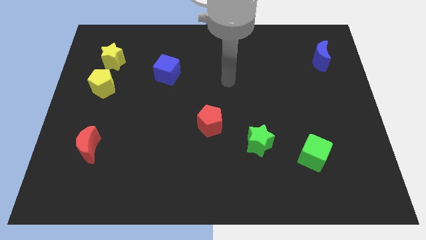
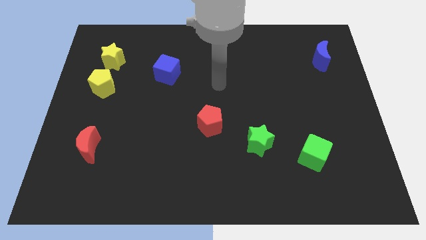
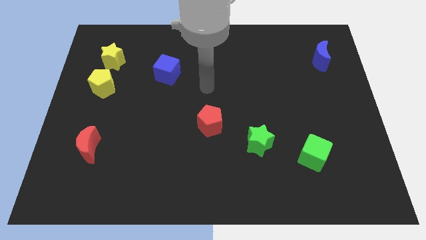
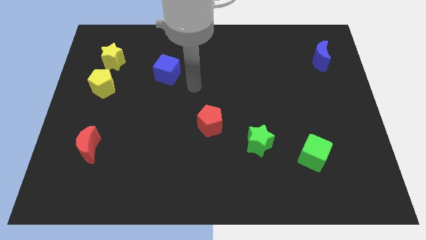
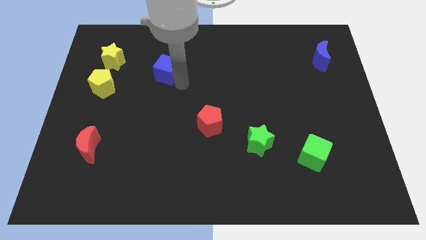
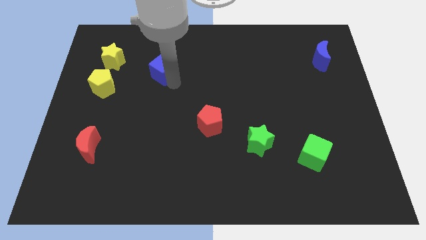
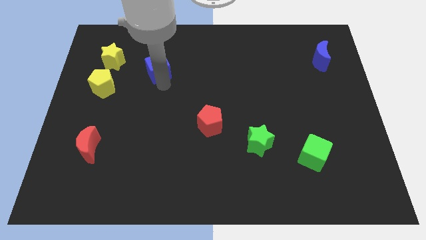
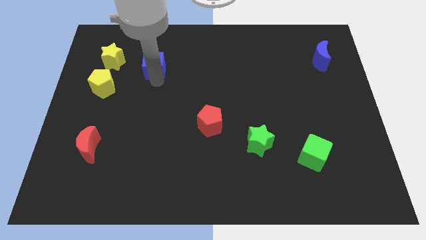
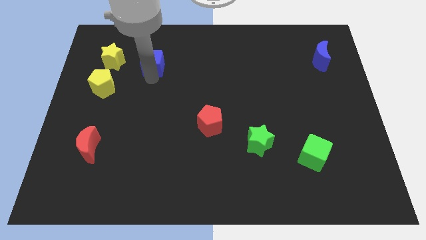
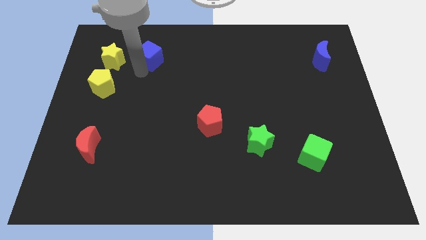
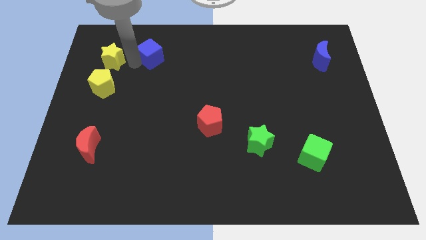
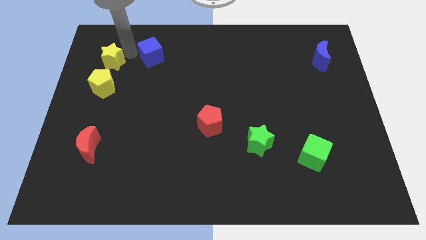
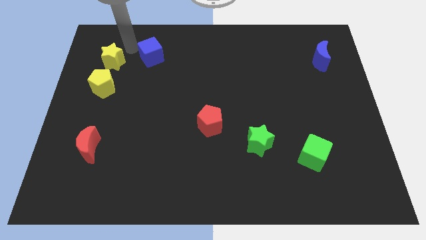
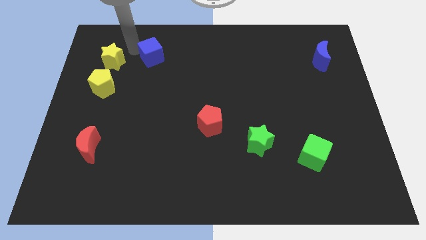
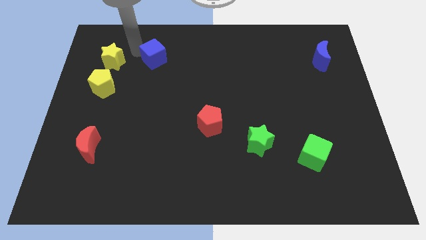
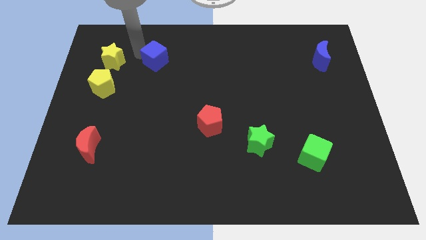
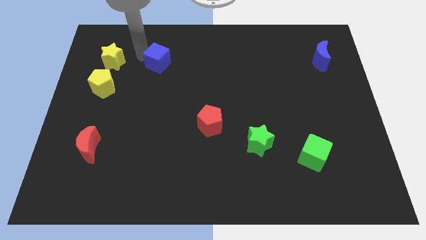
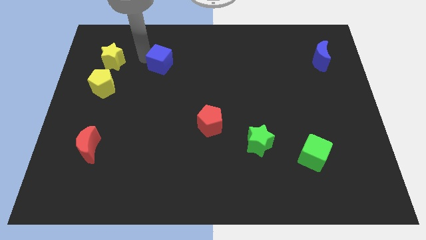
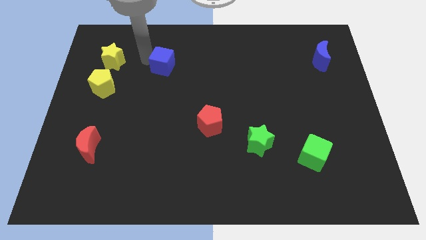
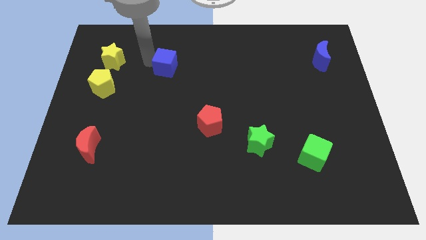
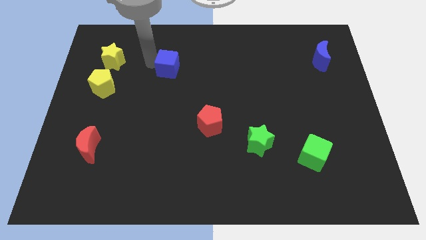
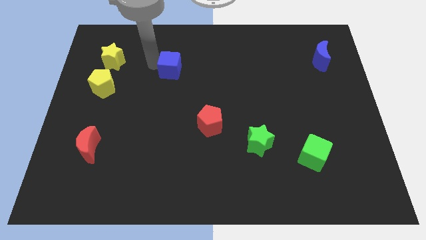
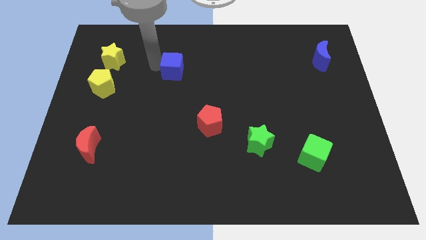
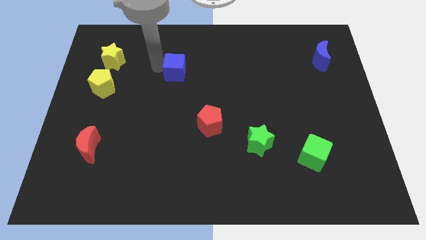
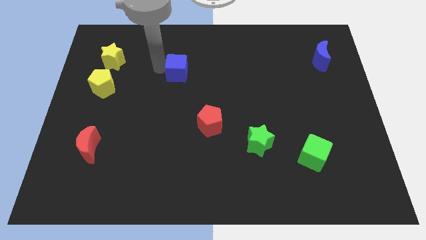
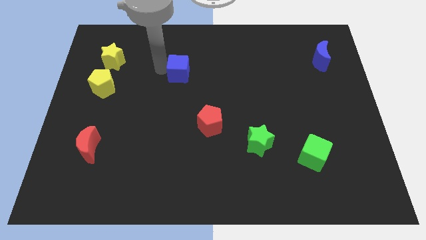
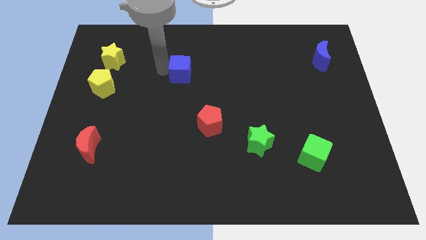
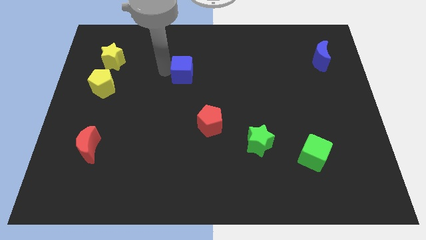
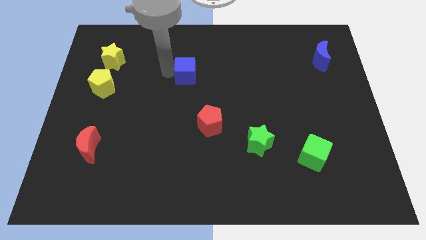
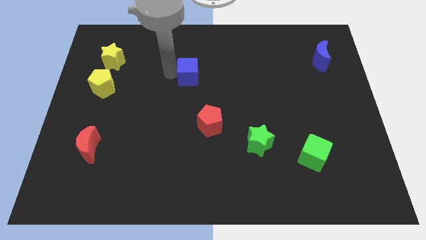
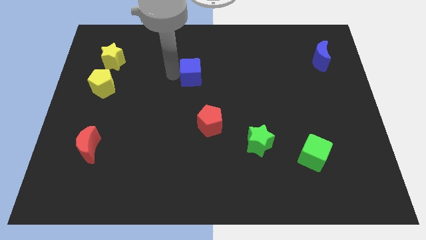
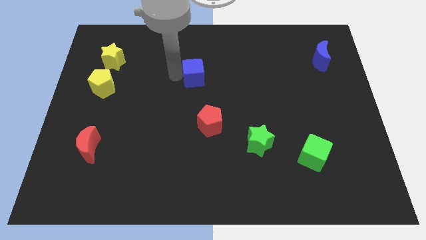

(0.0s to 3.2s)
slide the blue cube somewhat right

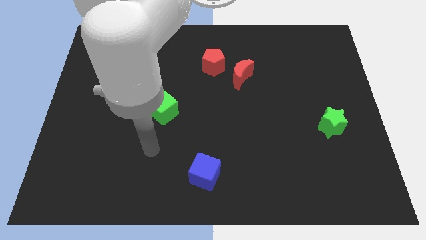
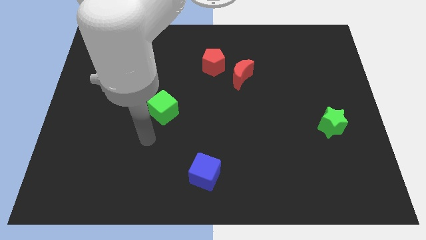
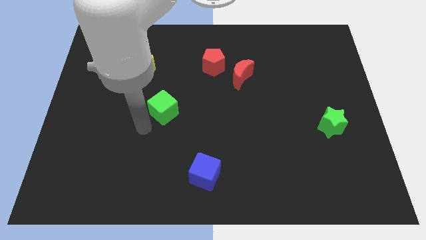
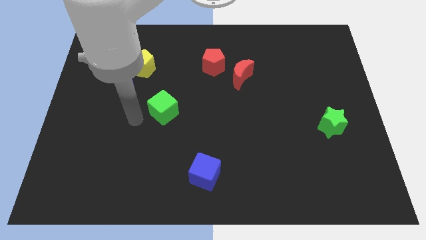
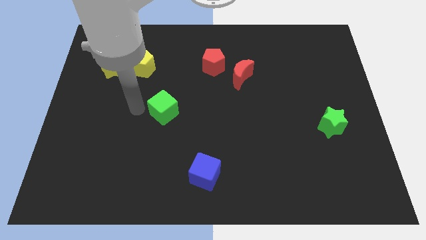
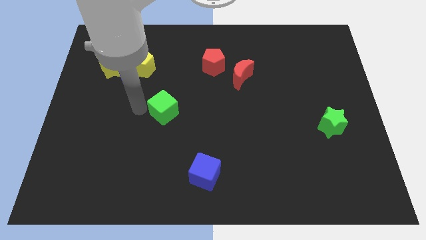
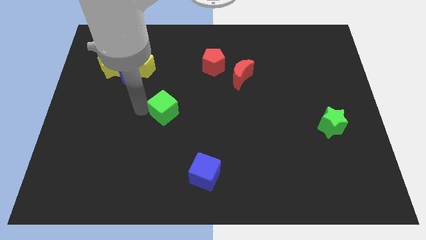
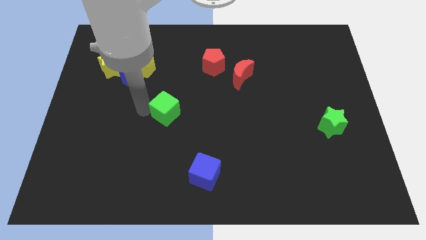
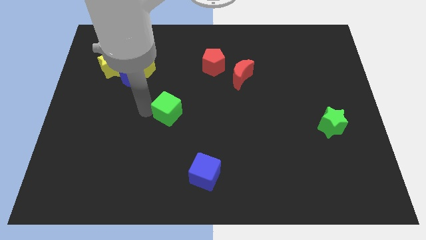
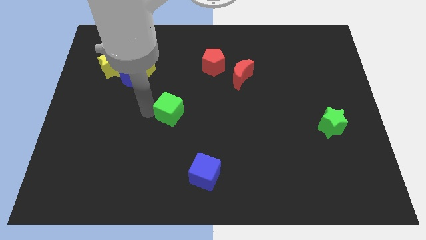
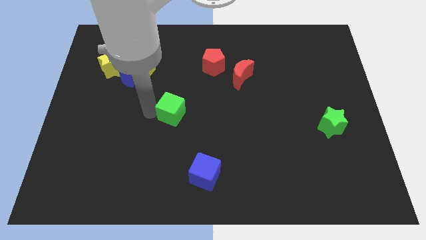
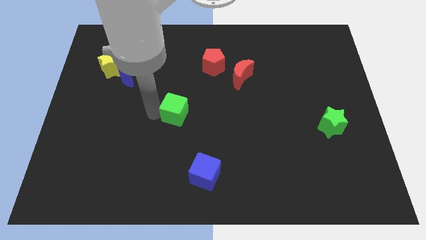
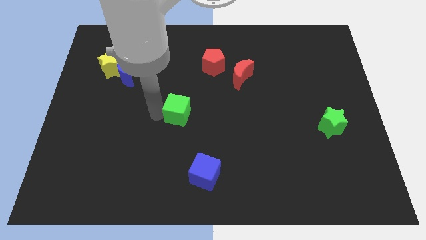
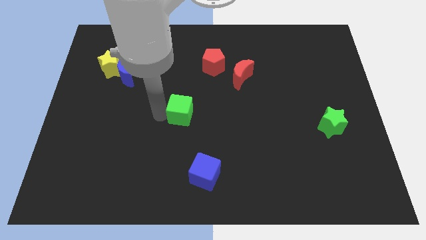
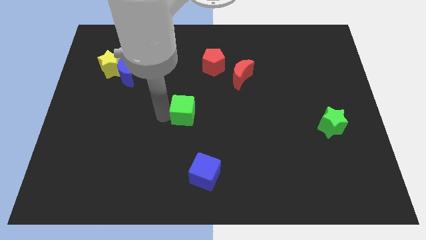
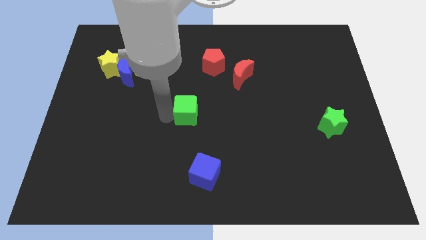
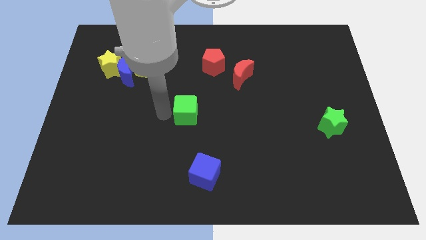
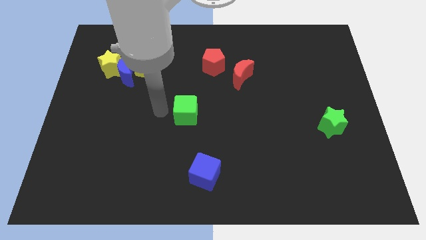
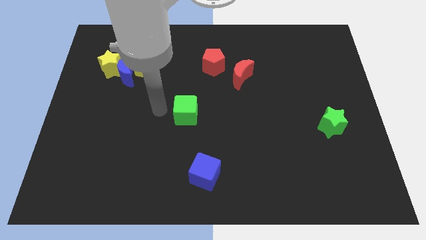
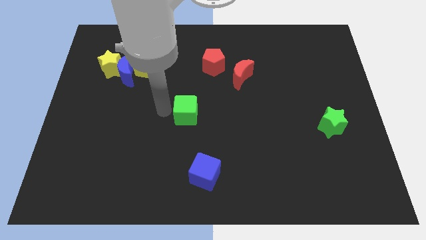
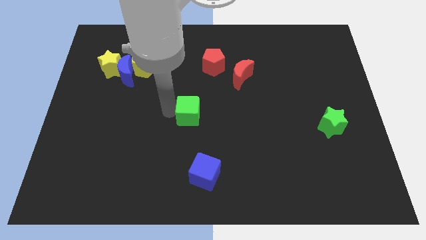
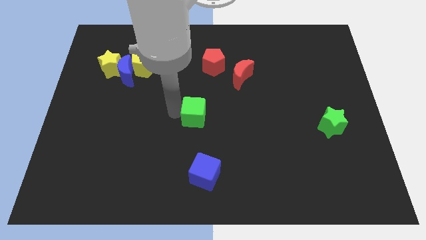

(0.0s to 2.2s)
push the green cube a little to the right

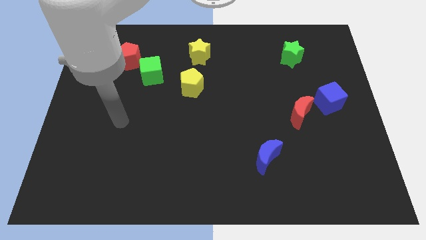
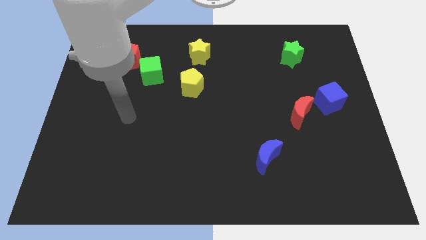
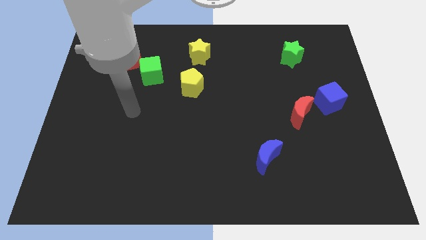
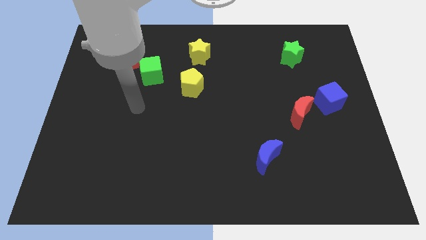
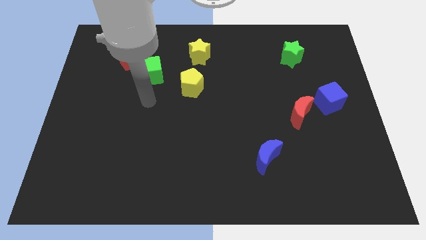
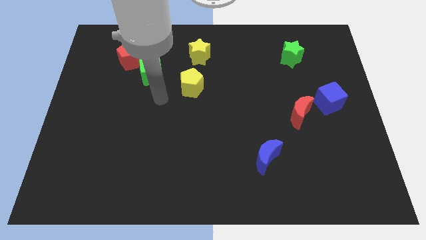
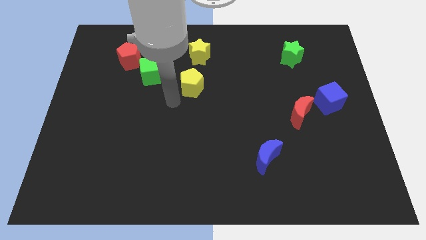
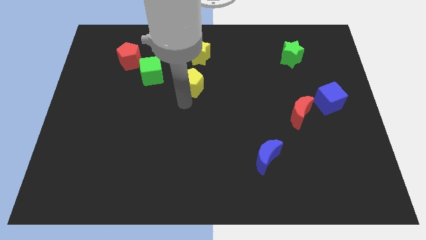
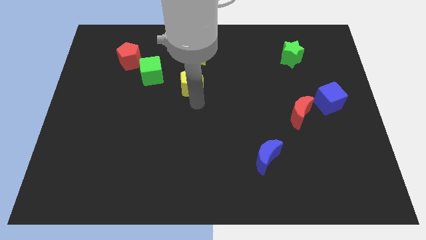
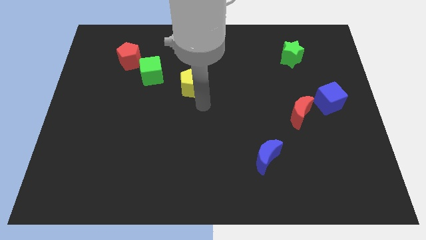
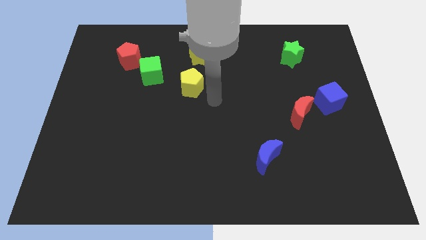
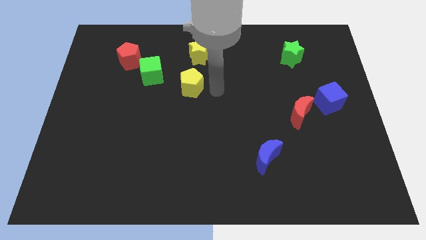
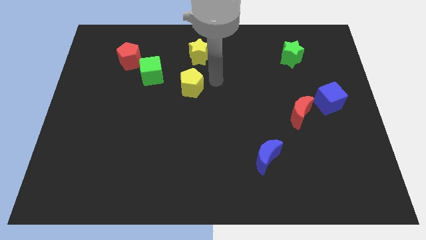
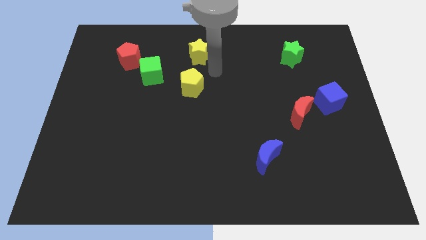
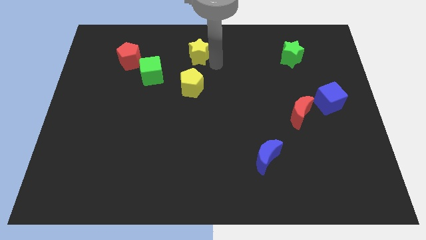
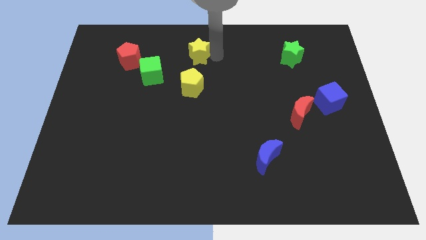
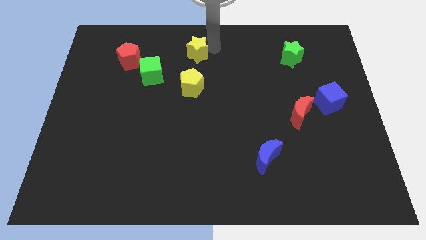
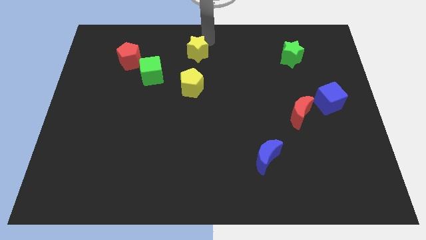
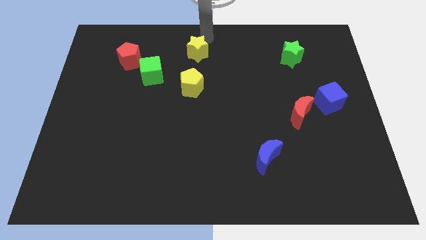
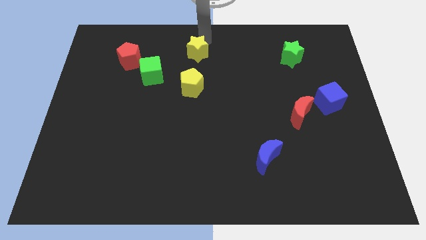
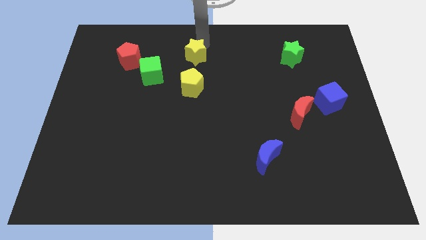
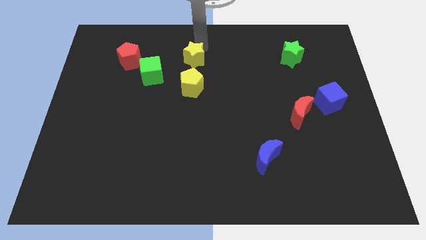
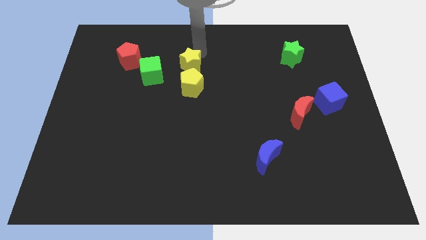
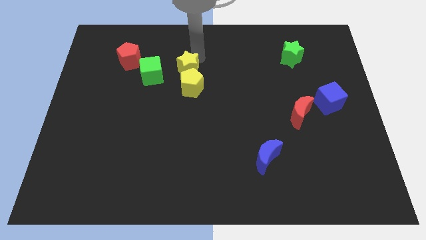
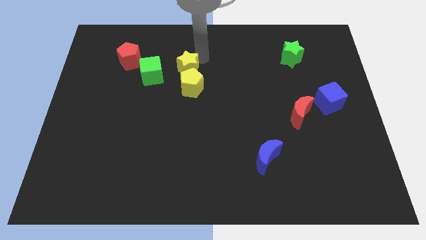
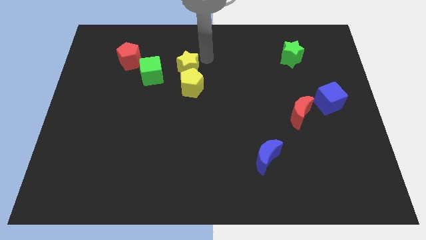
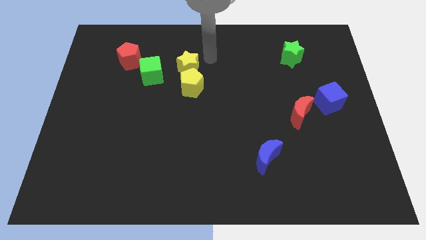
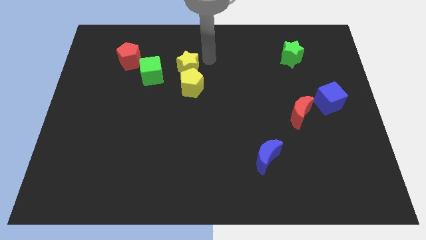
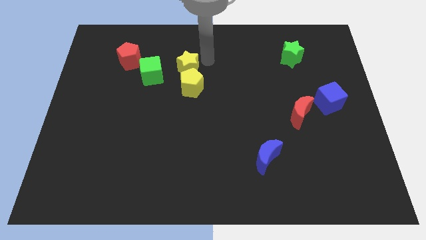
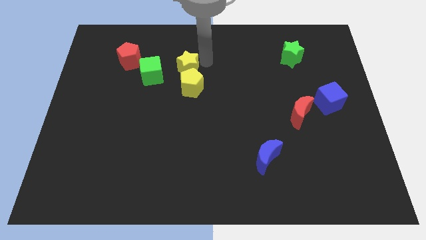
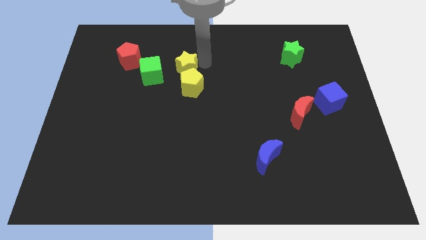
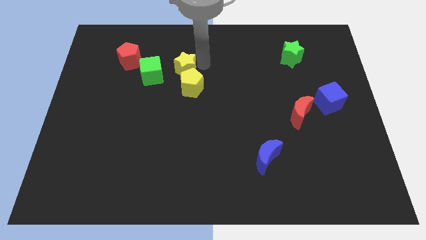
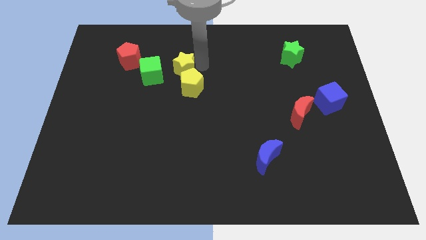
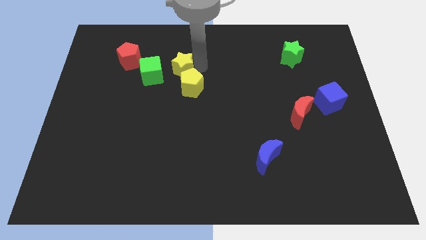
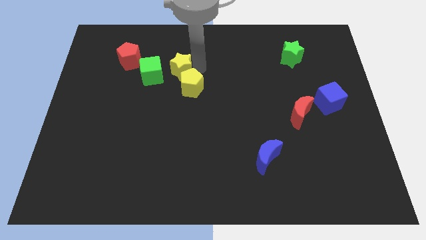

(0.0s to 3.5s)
slide the yellow star down and then left slightly
